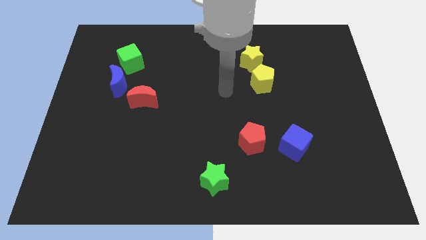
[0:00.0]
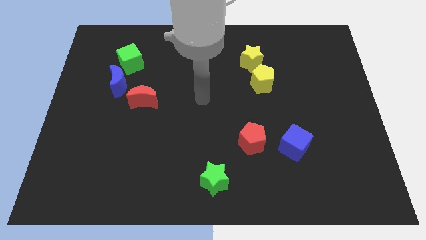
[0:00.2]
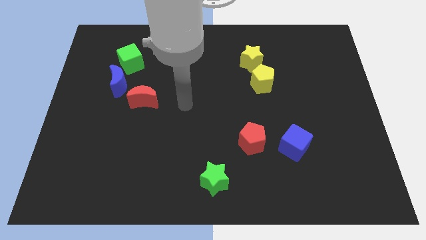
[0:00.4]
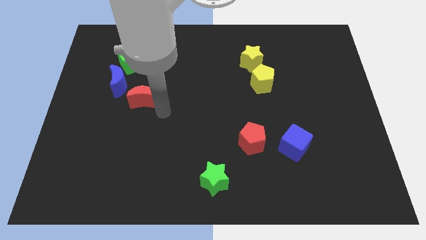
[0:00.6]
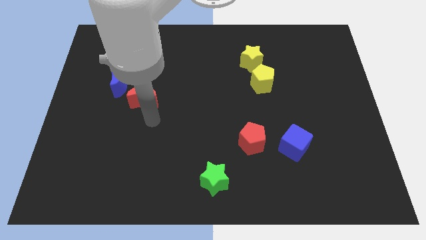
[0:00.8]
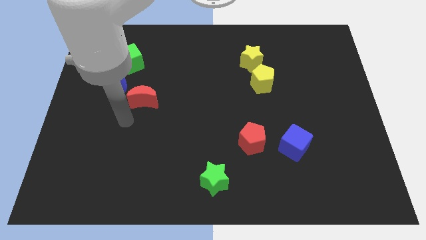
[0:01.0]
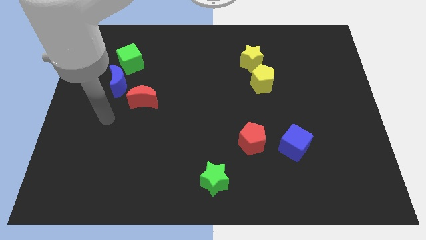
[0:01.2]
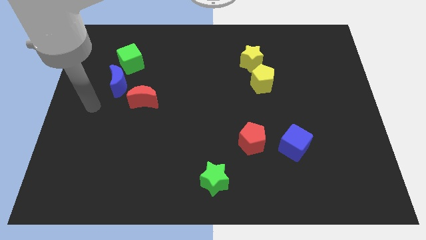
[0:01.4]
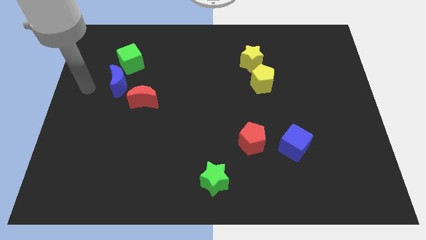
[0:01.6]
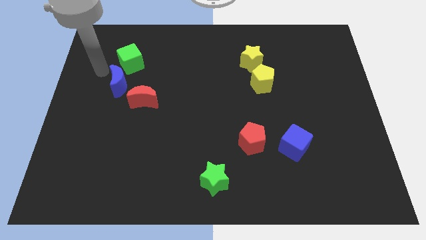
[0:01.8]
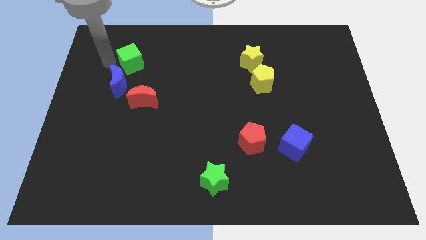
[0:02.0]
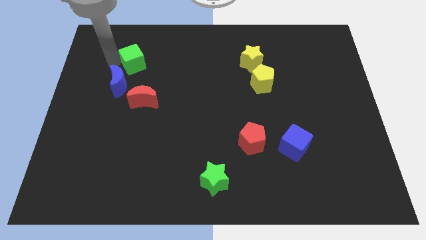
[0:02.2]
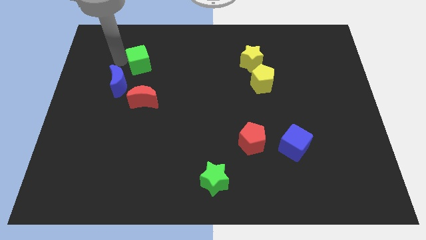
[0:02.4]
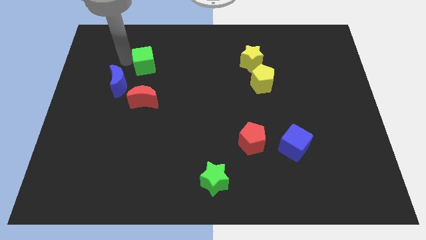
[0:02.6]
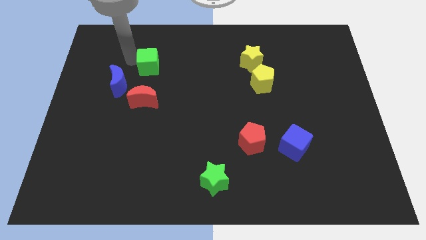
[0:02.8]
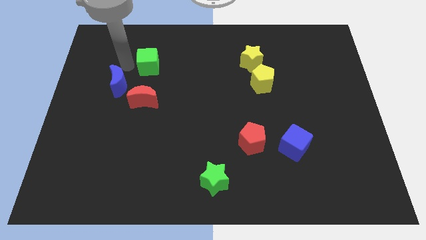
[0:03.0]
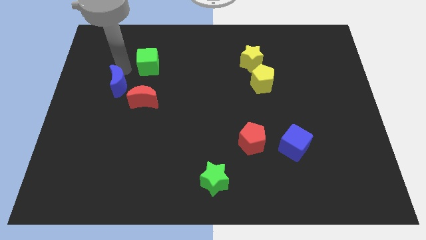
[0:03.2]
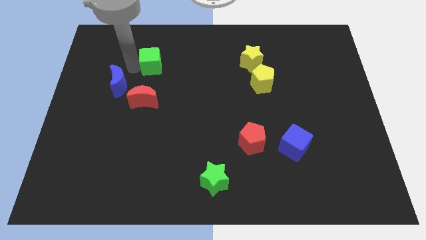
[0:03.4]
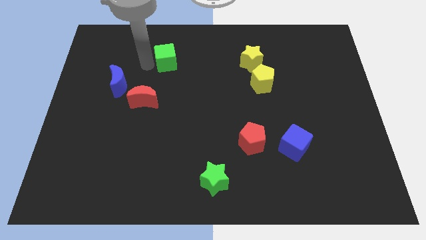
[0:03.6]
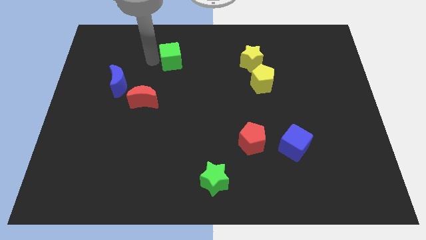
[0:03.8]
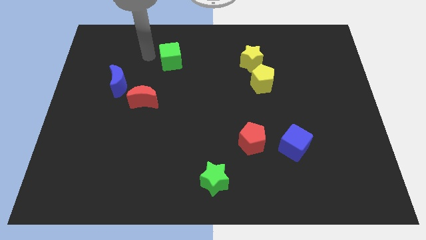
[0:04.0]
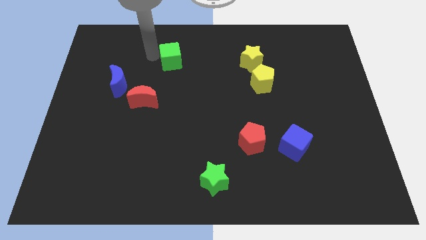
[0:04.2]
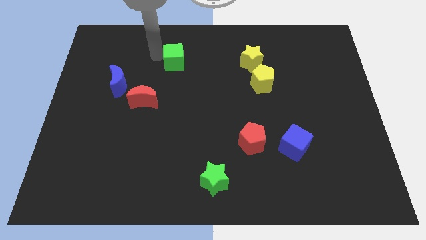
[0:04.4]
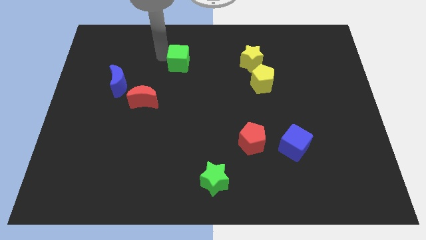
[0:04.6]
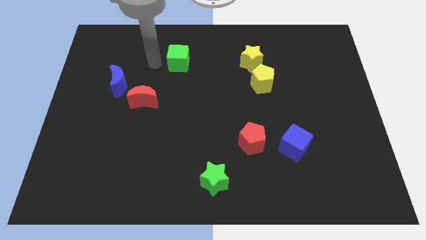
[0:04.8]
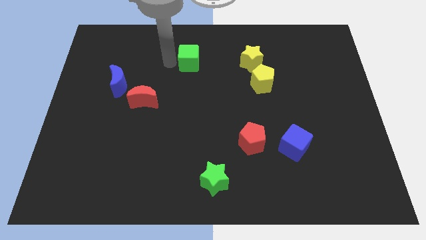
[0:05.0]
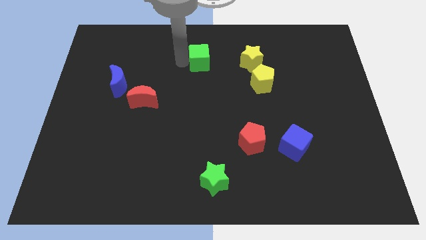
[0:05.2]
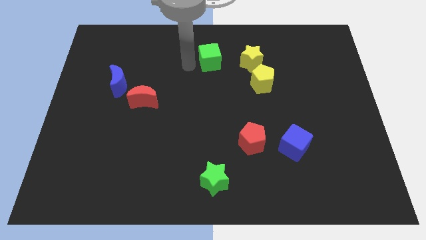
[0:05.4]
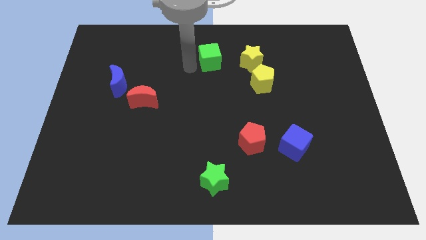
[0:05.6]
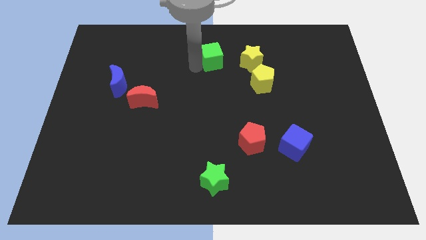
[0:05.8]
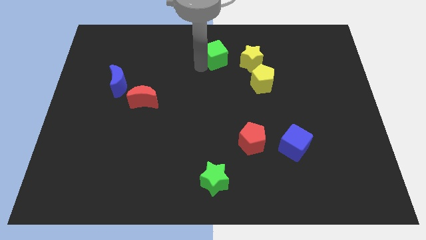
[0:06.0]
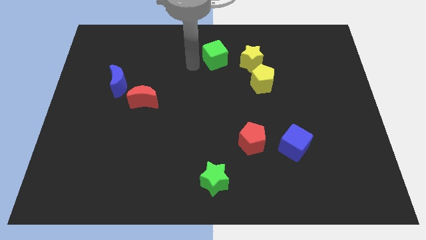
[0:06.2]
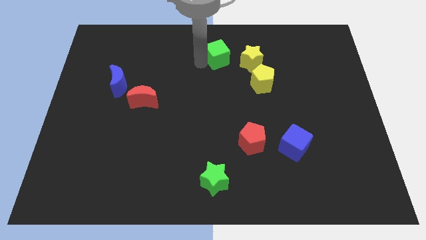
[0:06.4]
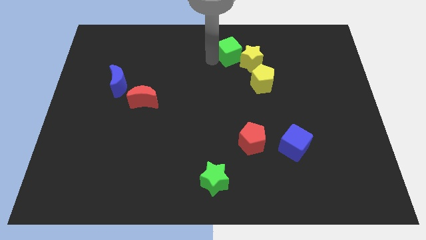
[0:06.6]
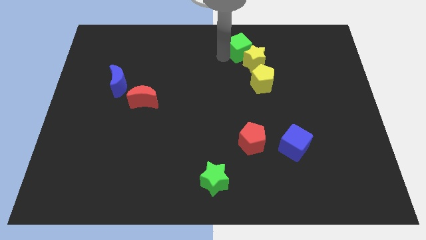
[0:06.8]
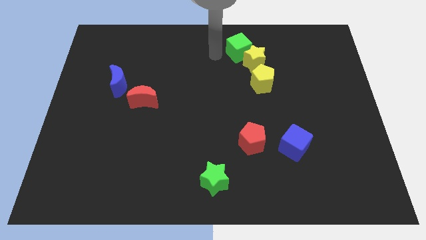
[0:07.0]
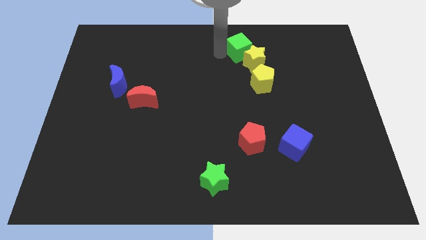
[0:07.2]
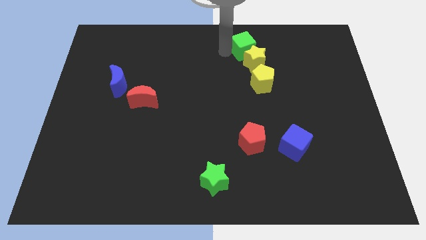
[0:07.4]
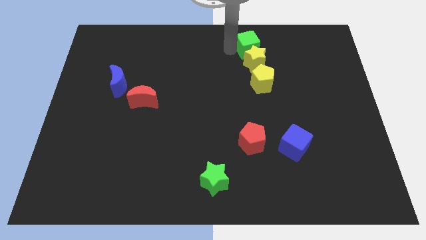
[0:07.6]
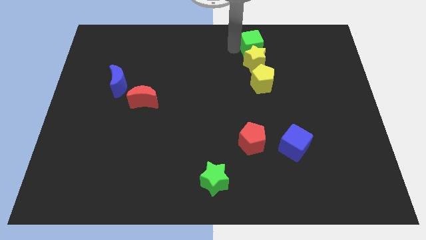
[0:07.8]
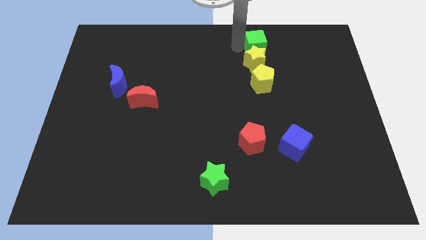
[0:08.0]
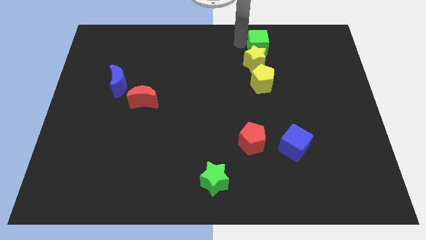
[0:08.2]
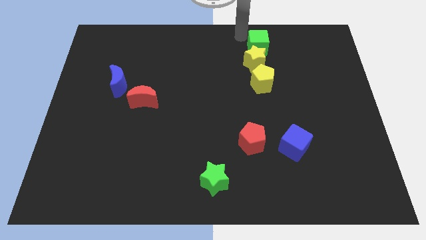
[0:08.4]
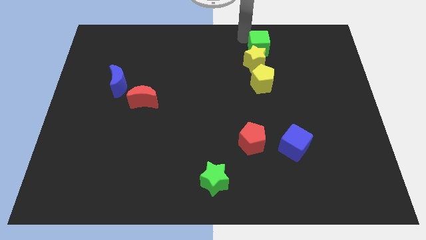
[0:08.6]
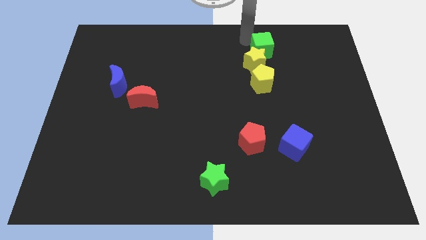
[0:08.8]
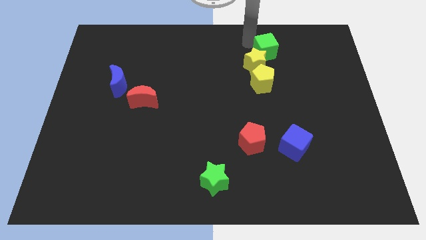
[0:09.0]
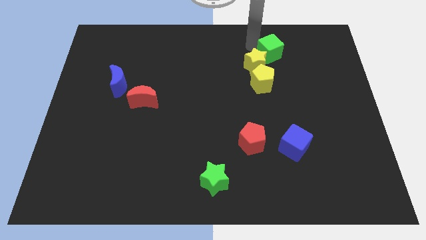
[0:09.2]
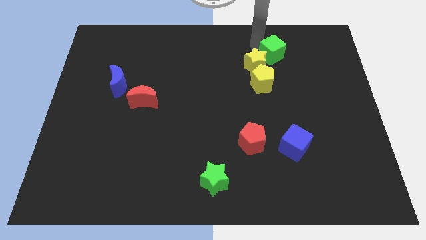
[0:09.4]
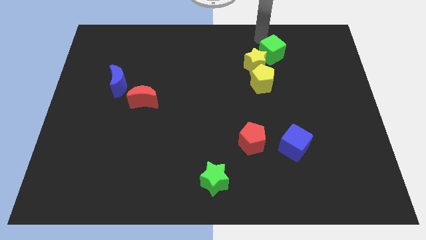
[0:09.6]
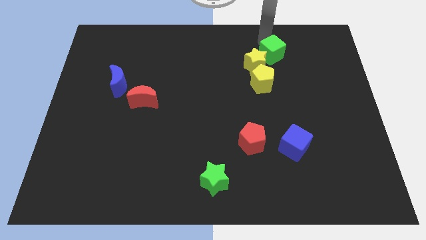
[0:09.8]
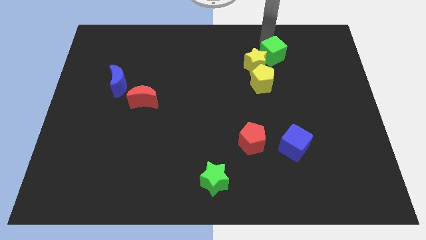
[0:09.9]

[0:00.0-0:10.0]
move the green cube diagonally up and to the right of the yellow pentagon

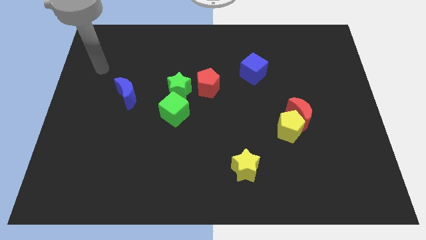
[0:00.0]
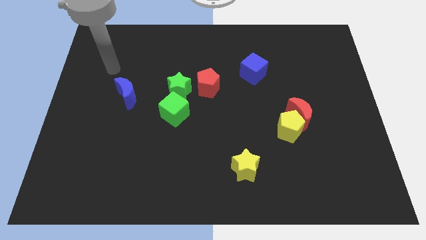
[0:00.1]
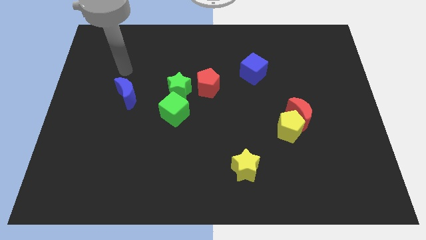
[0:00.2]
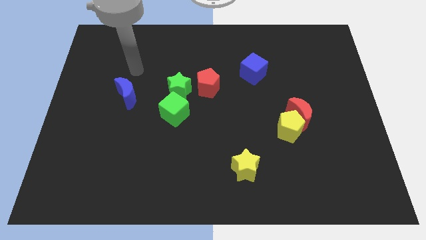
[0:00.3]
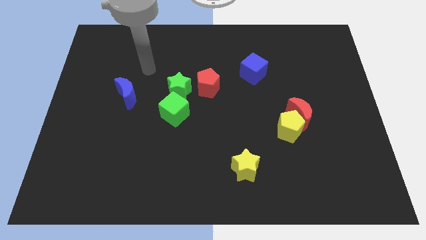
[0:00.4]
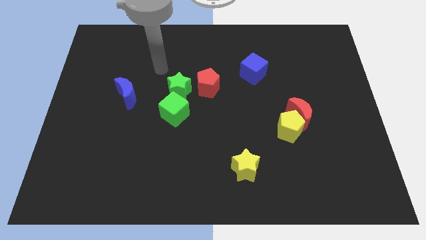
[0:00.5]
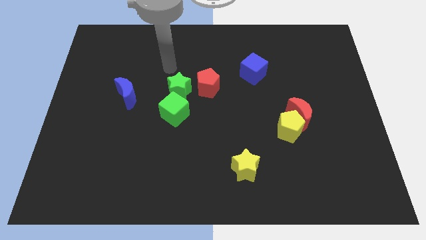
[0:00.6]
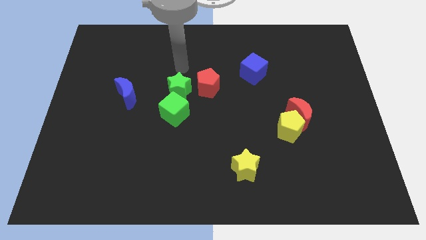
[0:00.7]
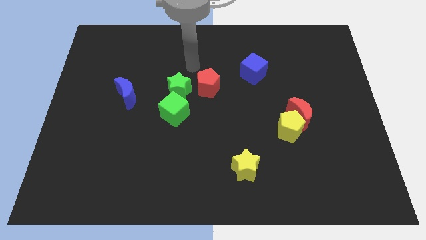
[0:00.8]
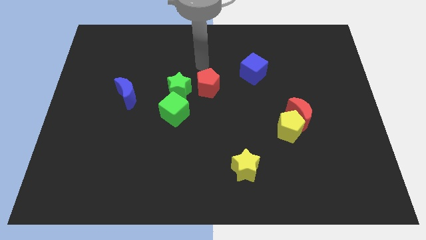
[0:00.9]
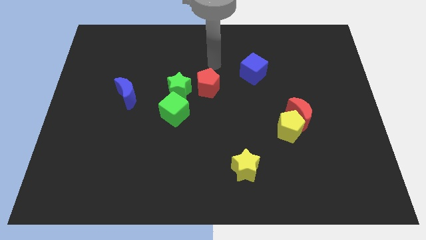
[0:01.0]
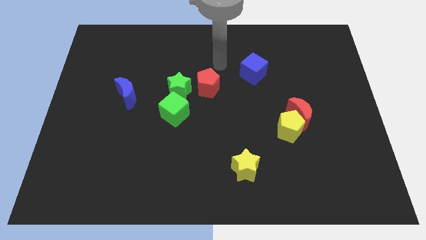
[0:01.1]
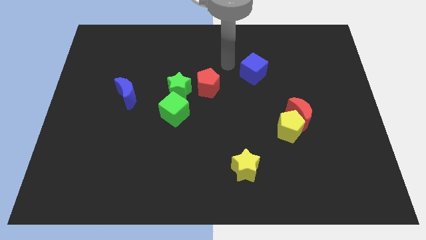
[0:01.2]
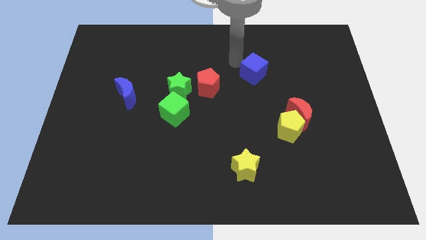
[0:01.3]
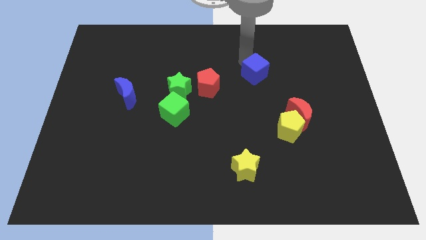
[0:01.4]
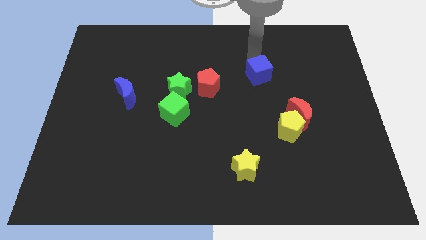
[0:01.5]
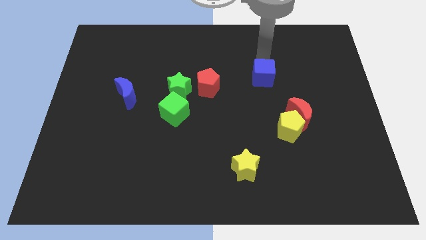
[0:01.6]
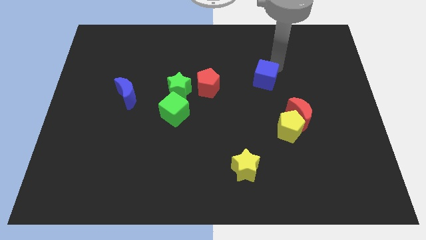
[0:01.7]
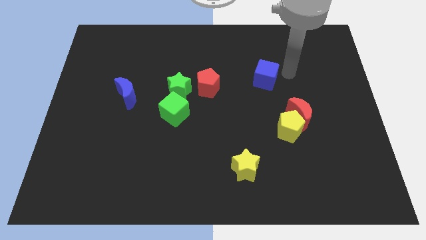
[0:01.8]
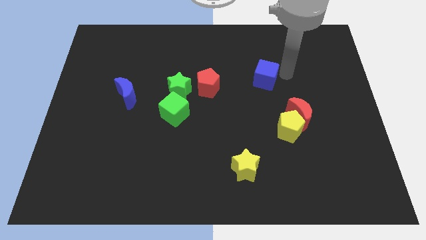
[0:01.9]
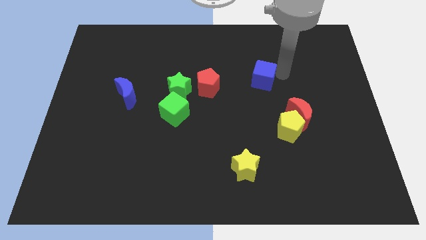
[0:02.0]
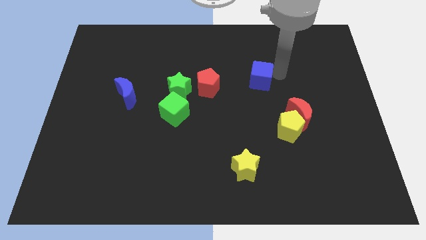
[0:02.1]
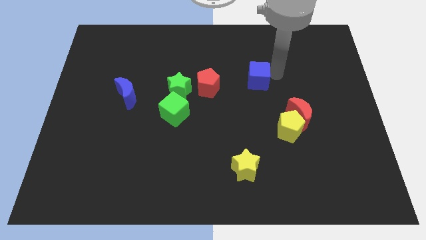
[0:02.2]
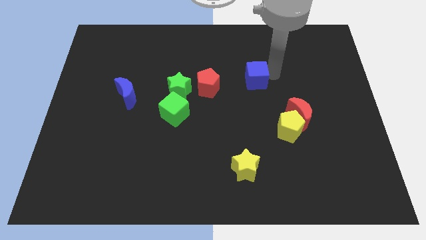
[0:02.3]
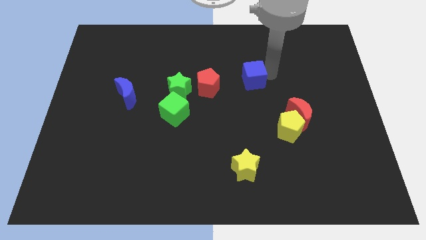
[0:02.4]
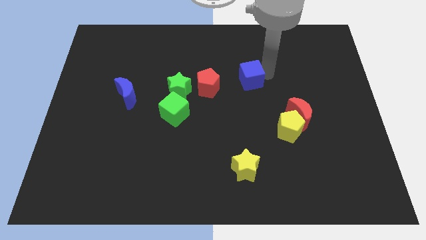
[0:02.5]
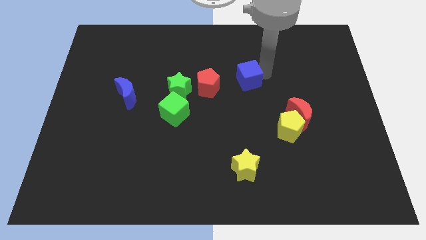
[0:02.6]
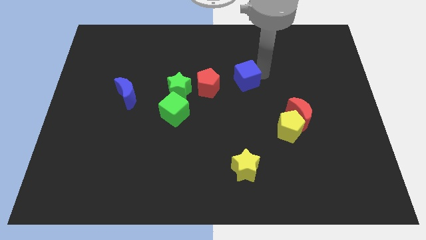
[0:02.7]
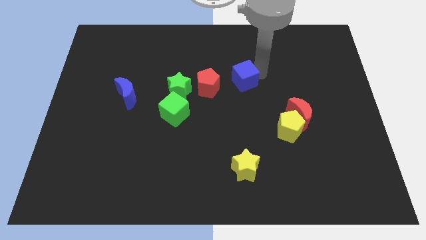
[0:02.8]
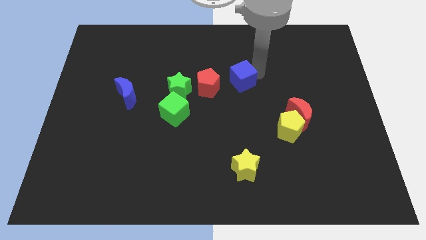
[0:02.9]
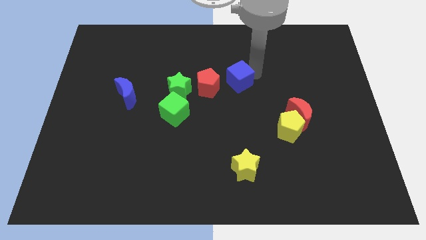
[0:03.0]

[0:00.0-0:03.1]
slide the blue cube just right of the green star
